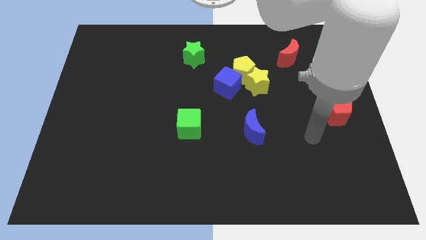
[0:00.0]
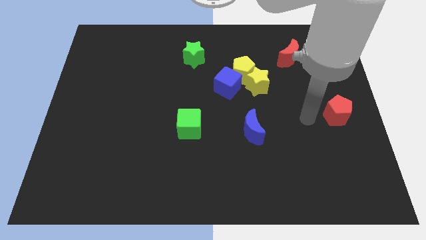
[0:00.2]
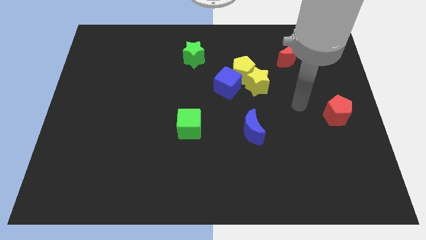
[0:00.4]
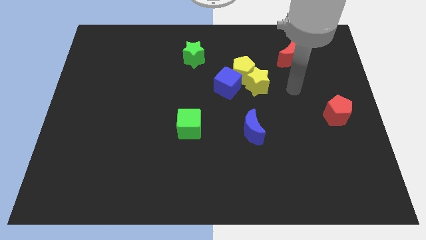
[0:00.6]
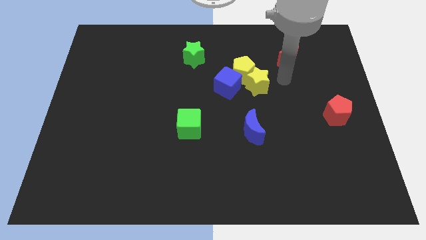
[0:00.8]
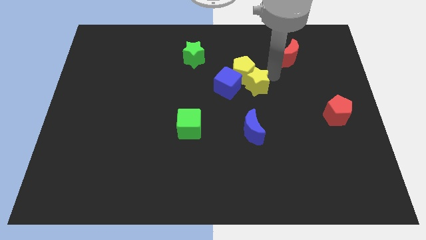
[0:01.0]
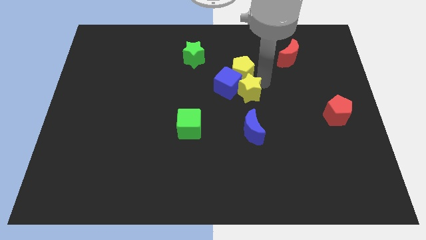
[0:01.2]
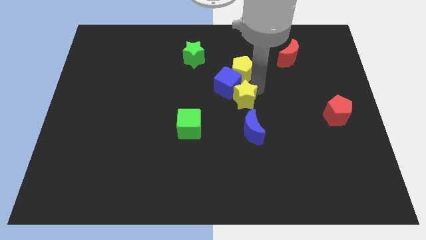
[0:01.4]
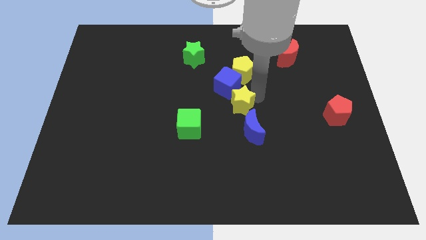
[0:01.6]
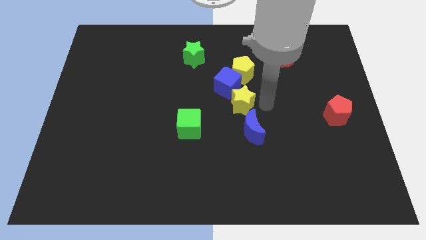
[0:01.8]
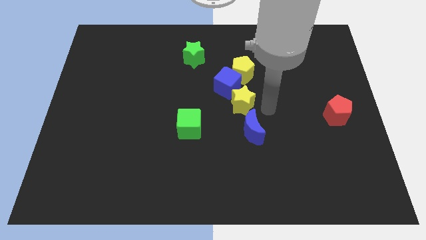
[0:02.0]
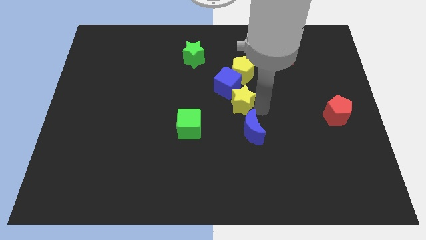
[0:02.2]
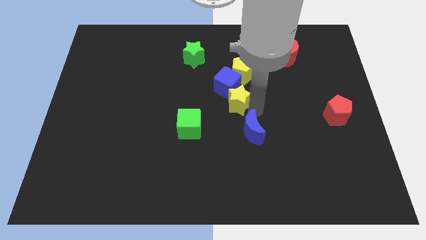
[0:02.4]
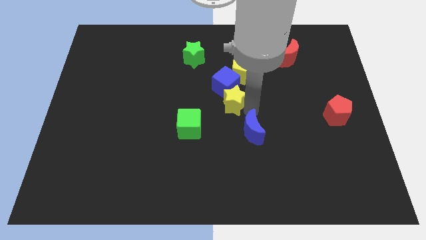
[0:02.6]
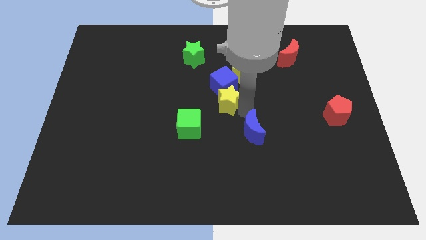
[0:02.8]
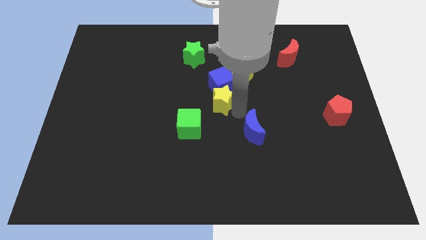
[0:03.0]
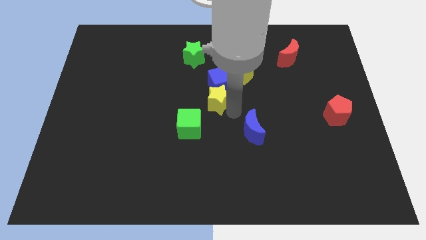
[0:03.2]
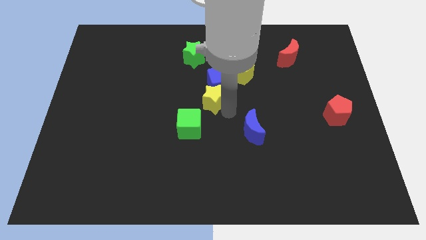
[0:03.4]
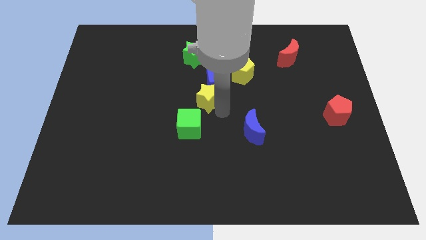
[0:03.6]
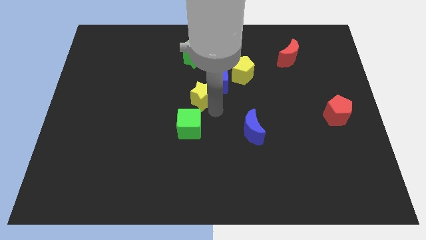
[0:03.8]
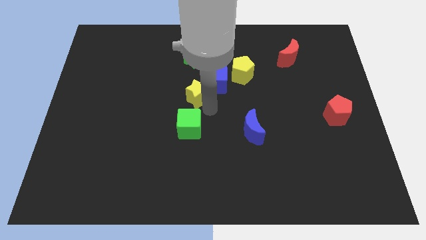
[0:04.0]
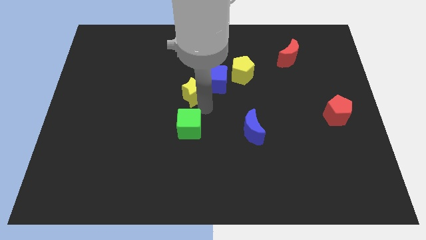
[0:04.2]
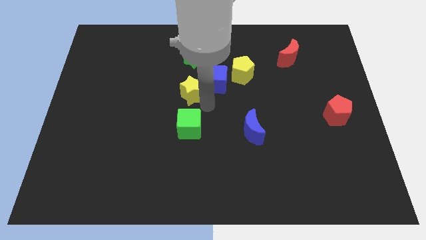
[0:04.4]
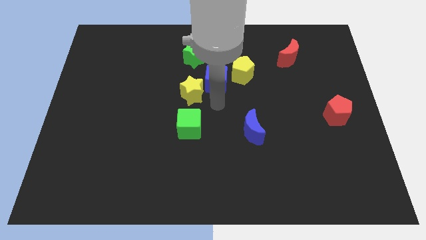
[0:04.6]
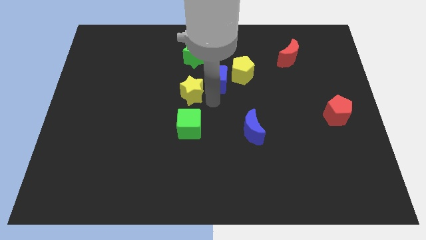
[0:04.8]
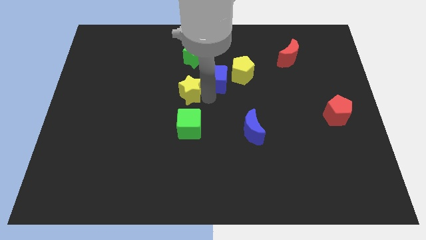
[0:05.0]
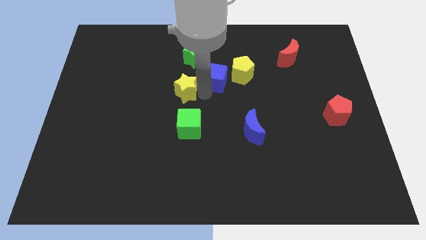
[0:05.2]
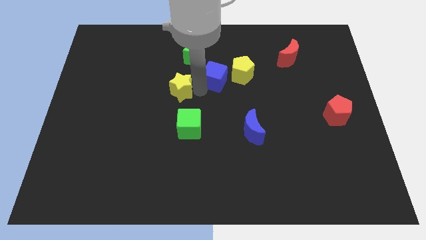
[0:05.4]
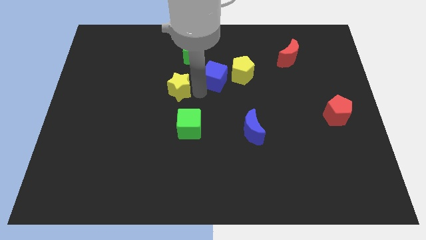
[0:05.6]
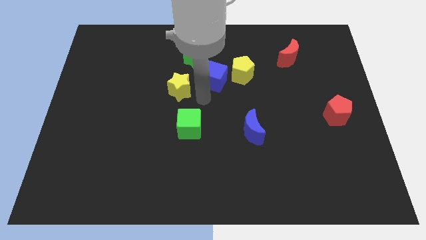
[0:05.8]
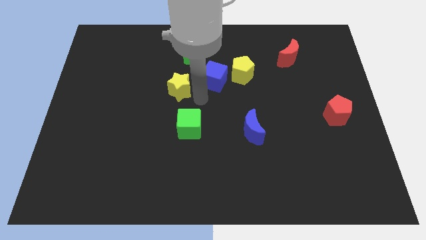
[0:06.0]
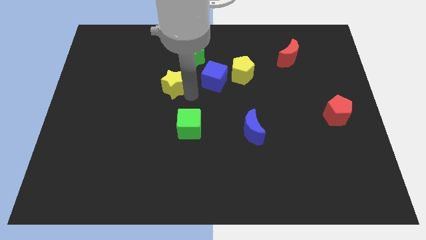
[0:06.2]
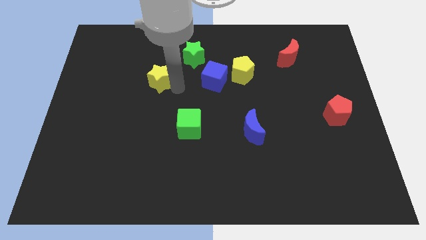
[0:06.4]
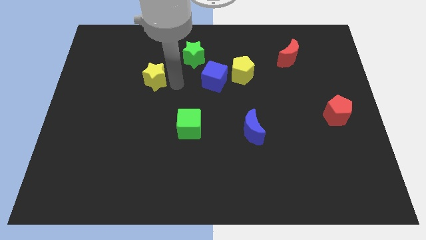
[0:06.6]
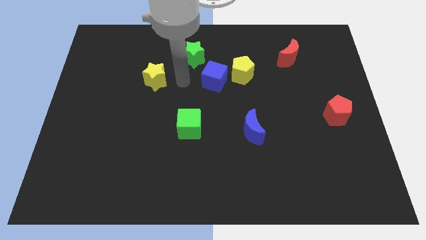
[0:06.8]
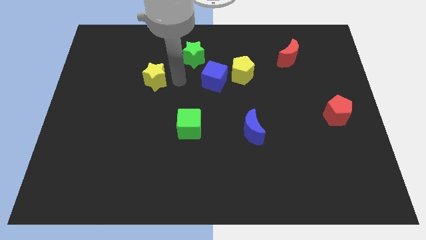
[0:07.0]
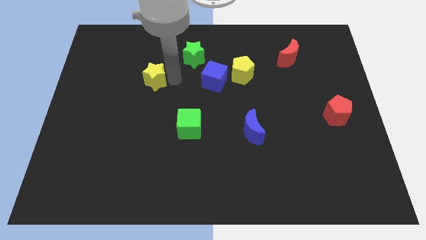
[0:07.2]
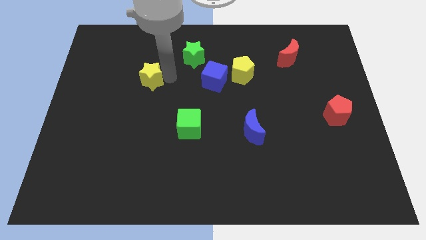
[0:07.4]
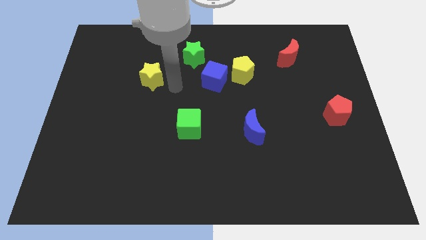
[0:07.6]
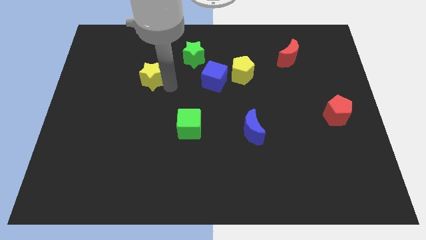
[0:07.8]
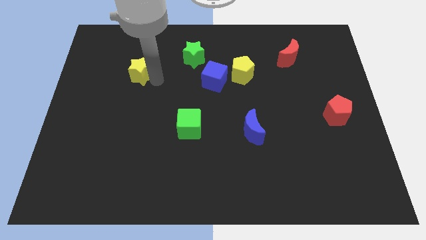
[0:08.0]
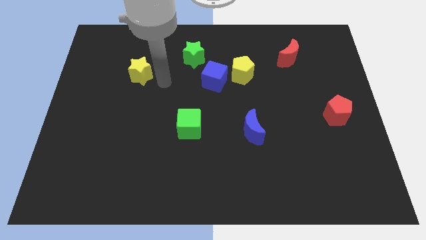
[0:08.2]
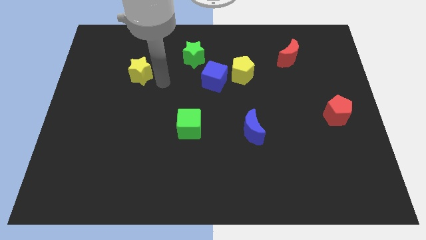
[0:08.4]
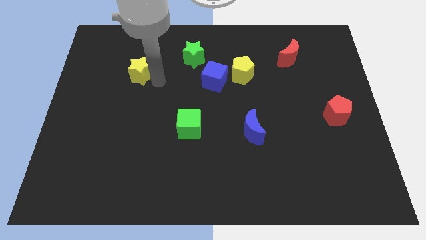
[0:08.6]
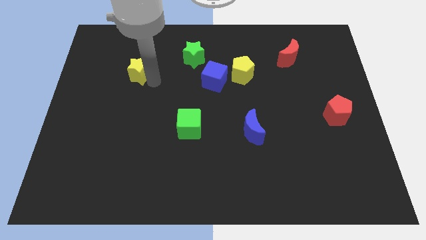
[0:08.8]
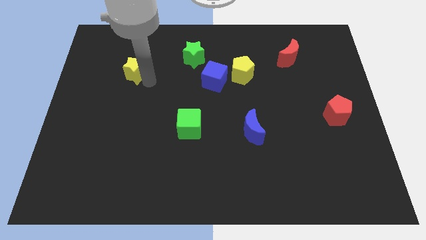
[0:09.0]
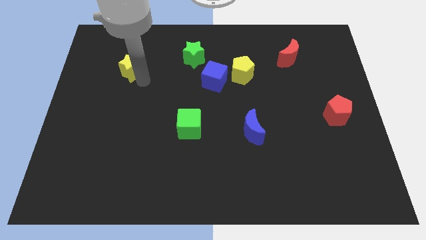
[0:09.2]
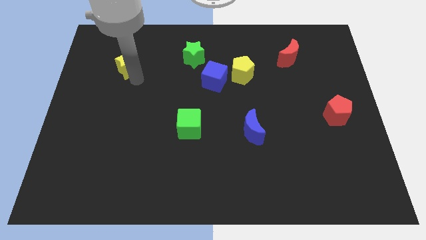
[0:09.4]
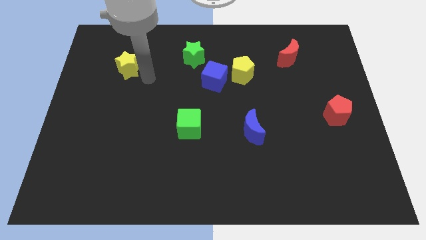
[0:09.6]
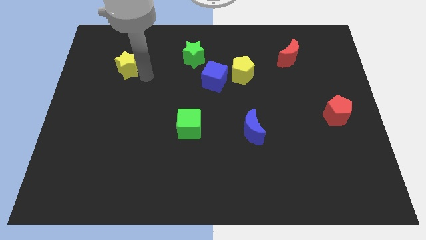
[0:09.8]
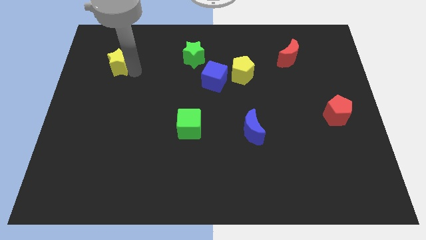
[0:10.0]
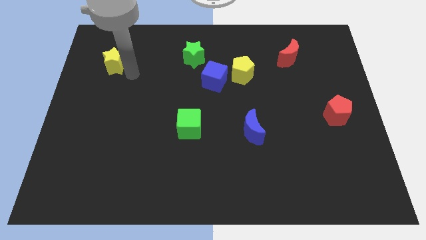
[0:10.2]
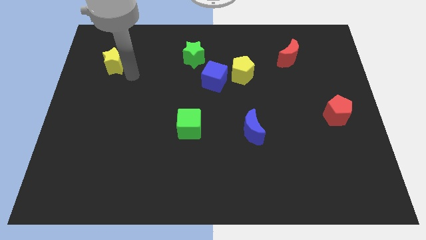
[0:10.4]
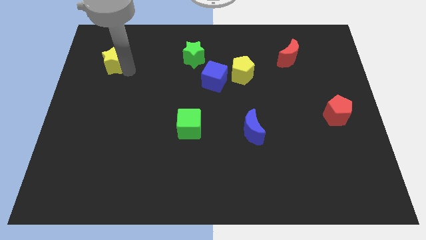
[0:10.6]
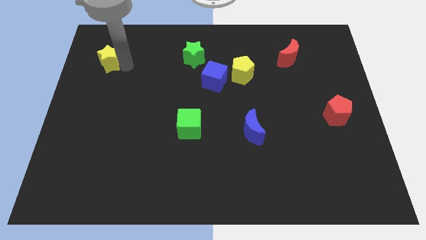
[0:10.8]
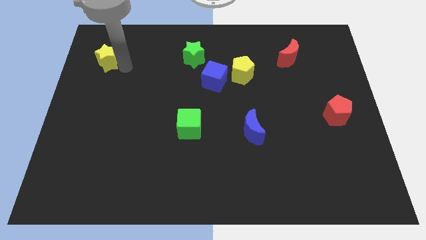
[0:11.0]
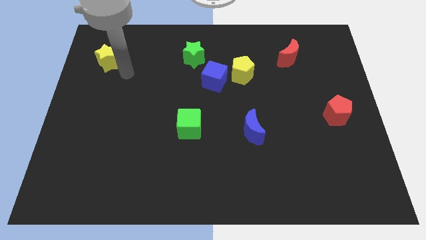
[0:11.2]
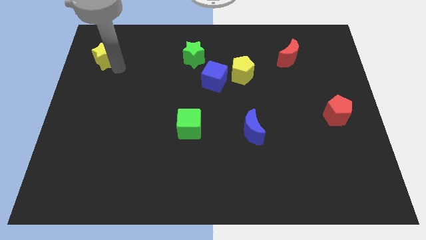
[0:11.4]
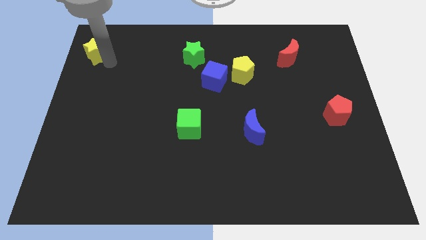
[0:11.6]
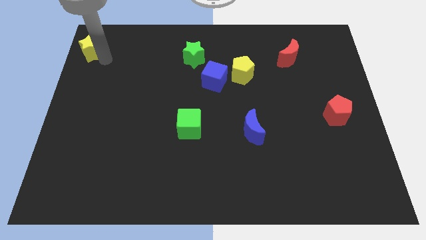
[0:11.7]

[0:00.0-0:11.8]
slide the yellow star to the top left corner

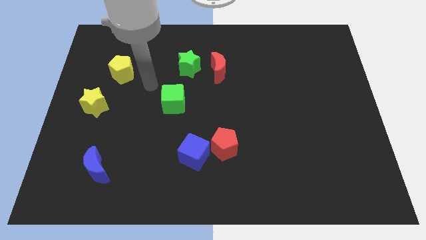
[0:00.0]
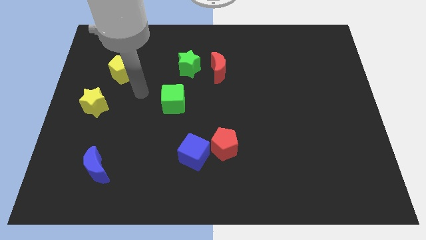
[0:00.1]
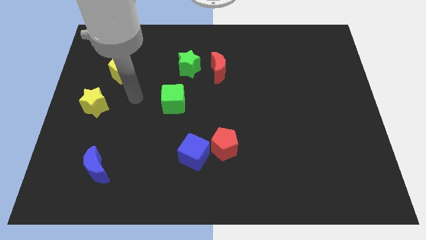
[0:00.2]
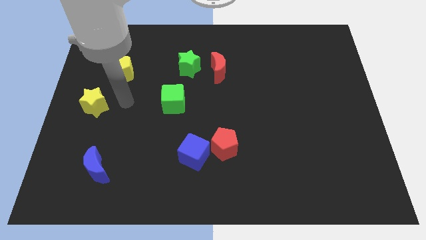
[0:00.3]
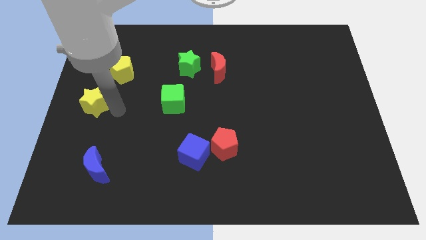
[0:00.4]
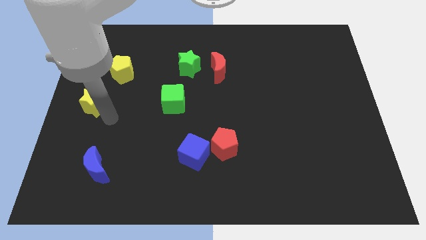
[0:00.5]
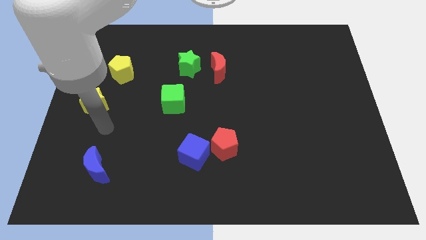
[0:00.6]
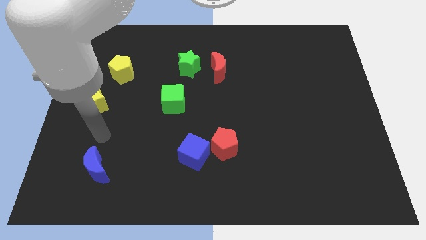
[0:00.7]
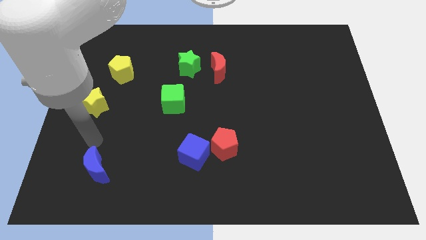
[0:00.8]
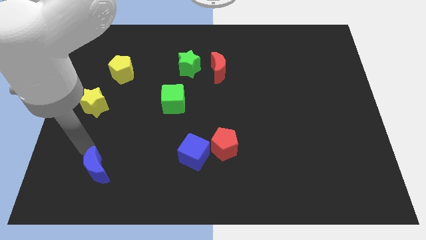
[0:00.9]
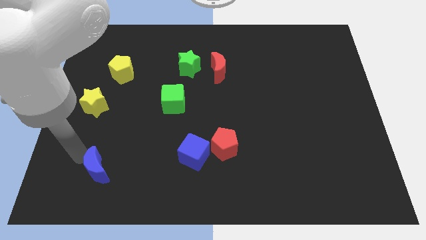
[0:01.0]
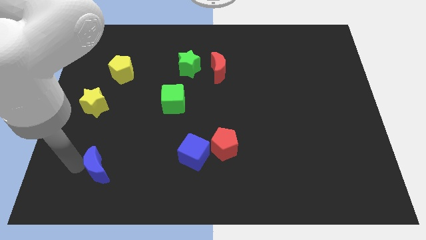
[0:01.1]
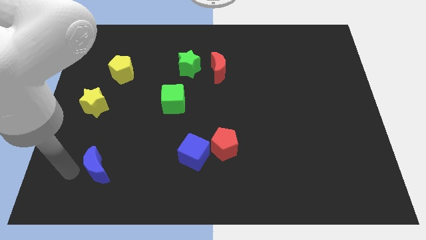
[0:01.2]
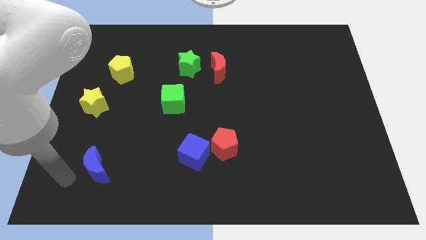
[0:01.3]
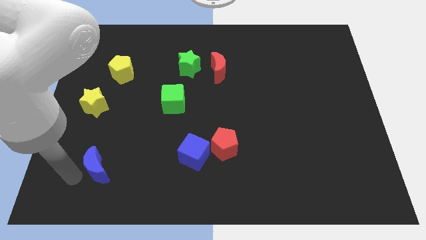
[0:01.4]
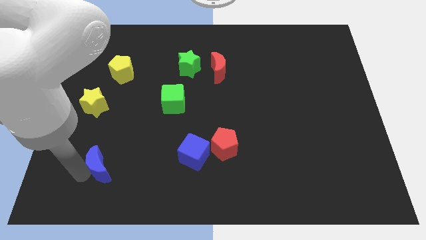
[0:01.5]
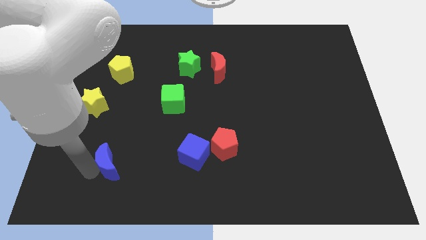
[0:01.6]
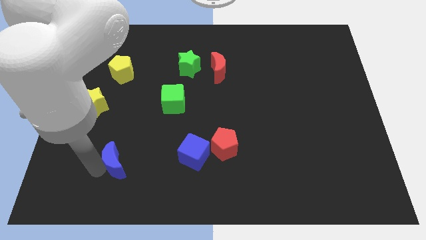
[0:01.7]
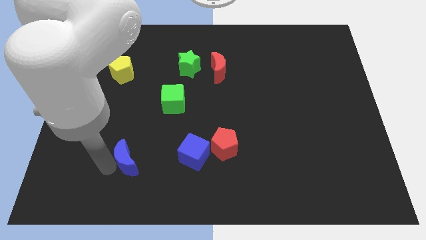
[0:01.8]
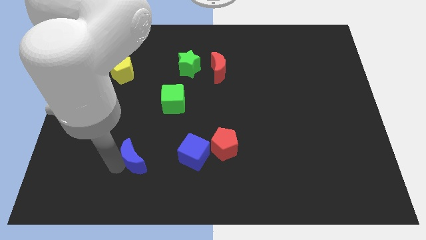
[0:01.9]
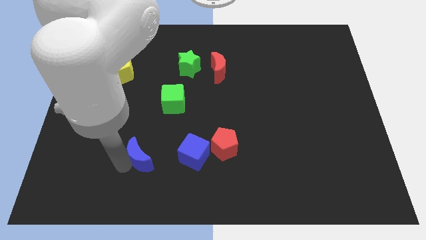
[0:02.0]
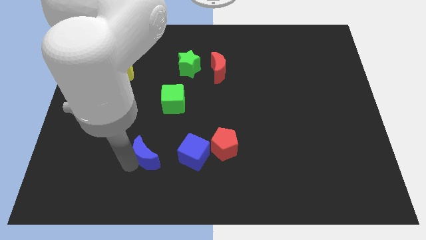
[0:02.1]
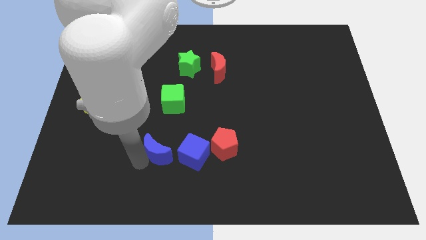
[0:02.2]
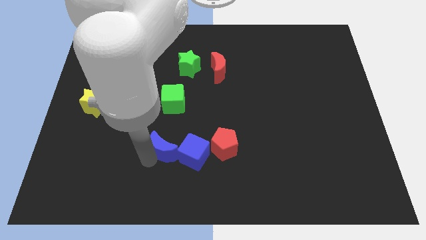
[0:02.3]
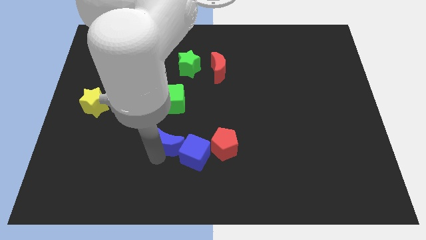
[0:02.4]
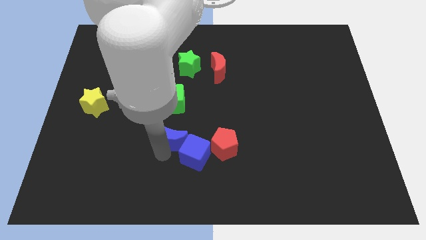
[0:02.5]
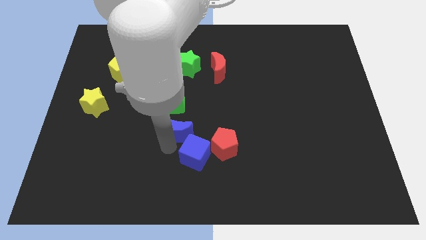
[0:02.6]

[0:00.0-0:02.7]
move the blue moon to the center
